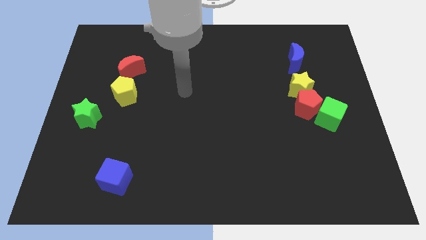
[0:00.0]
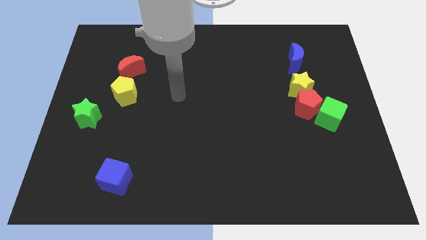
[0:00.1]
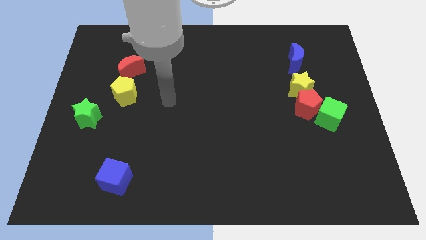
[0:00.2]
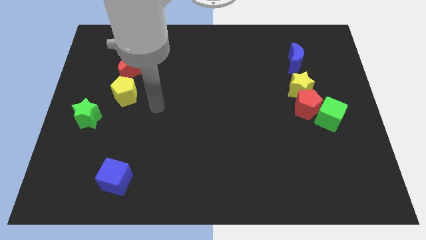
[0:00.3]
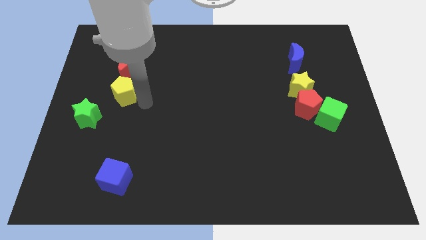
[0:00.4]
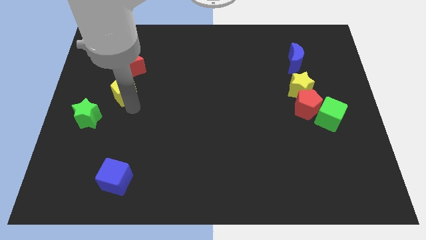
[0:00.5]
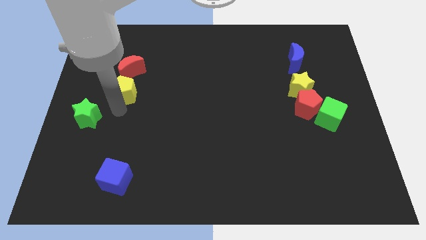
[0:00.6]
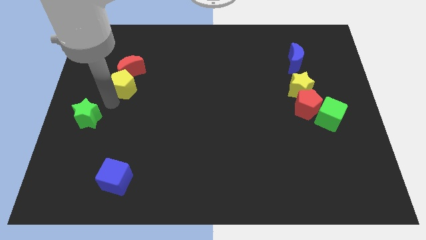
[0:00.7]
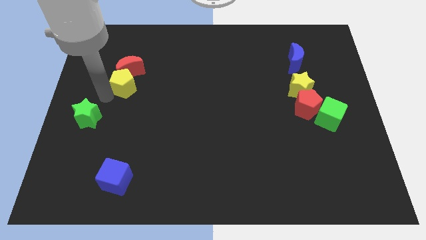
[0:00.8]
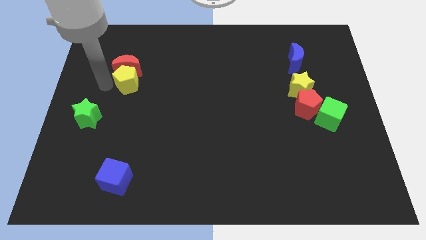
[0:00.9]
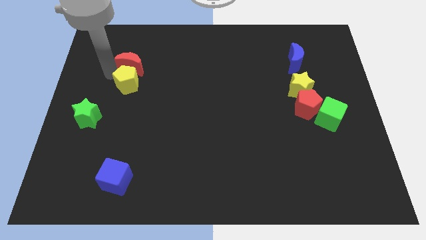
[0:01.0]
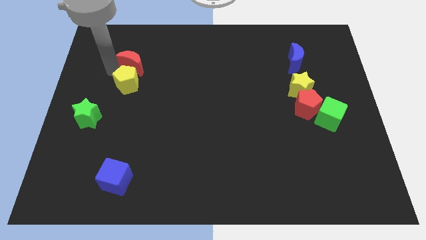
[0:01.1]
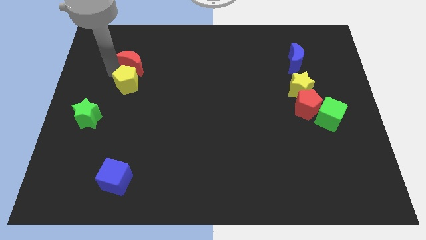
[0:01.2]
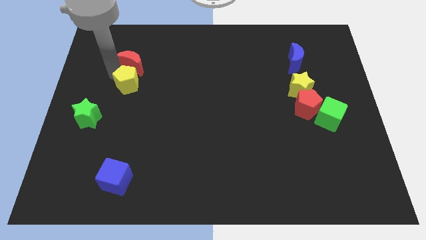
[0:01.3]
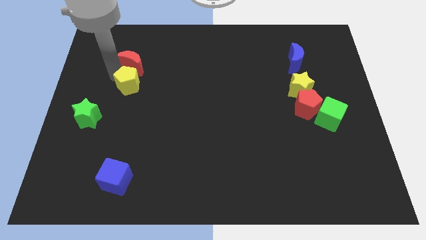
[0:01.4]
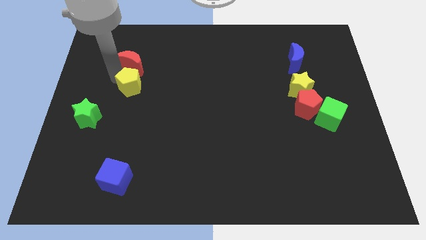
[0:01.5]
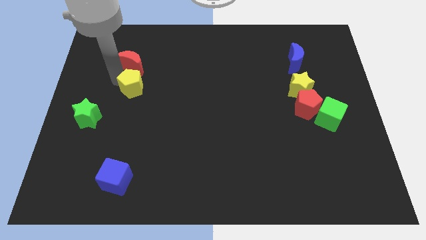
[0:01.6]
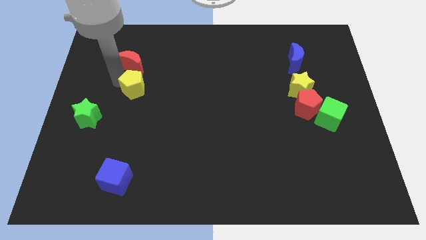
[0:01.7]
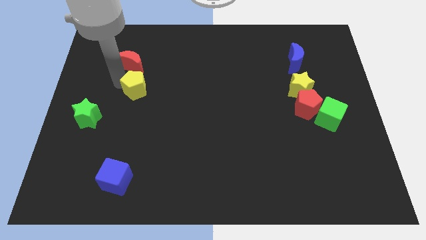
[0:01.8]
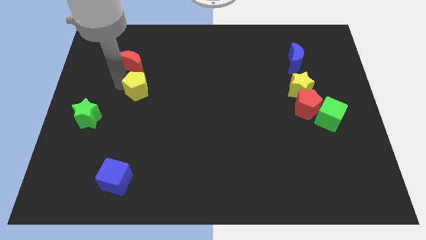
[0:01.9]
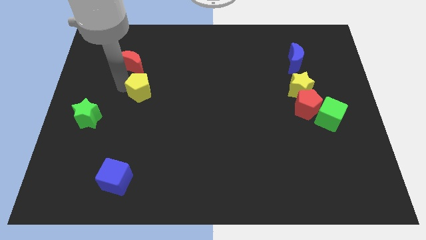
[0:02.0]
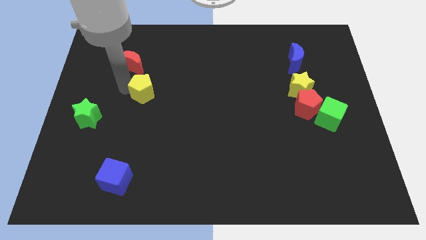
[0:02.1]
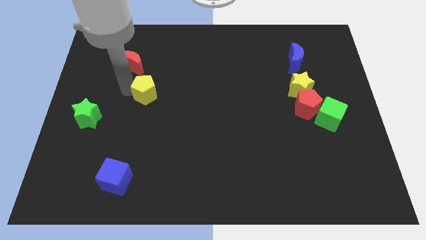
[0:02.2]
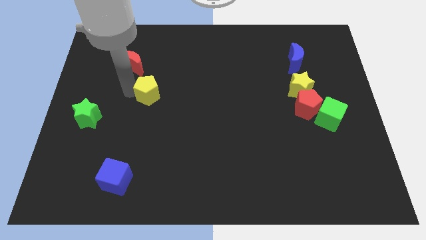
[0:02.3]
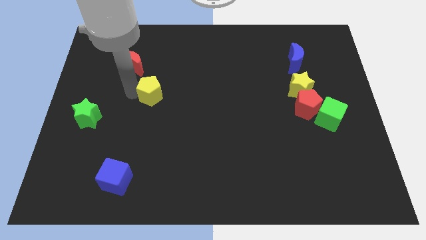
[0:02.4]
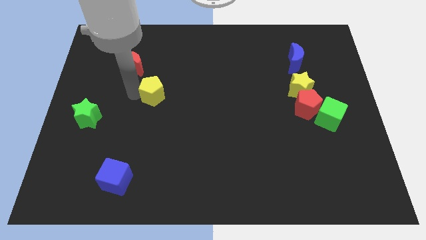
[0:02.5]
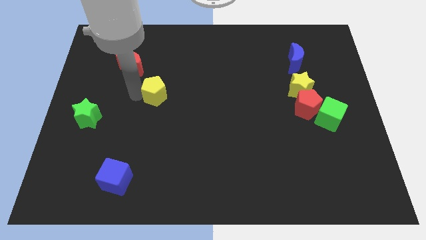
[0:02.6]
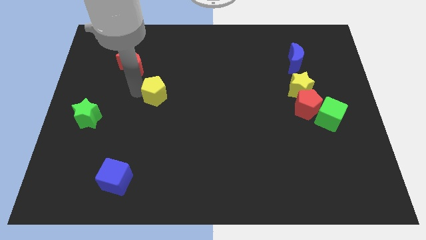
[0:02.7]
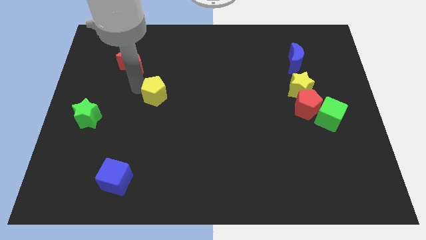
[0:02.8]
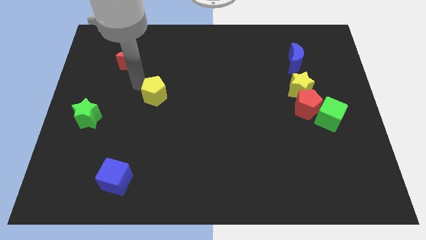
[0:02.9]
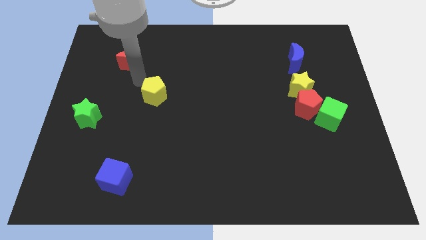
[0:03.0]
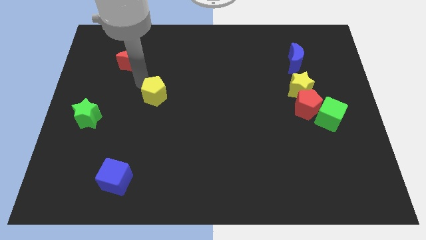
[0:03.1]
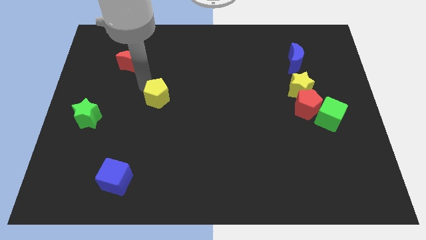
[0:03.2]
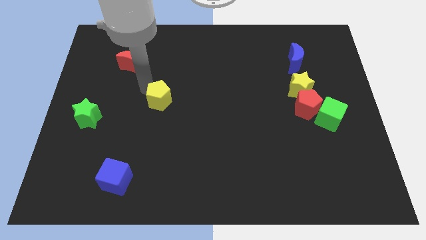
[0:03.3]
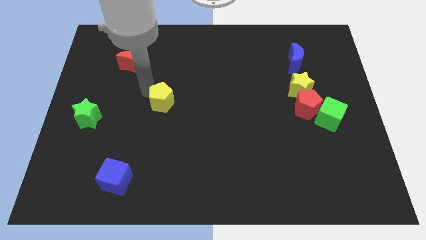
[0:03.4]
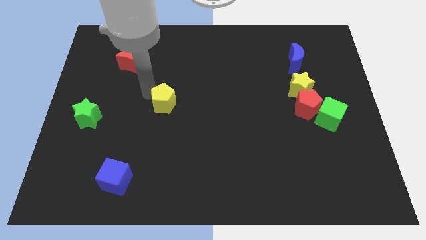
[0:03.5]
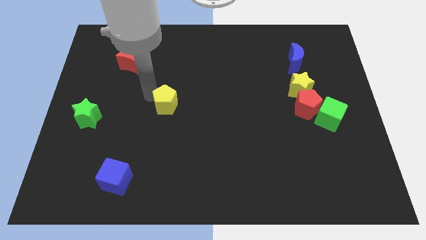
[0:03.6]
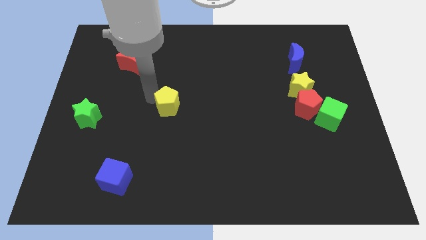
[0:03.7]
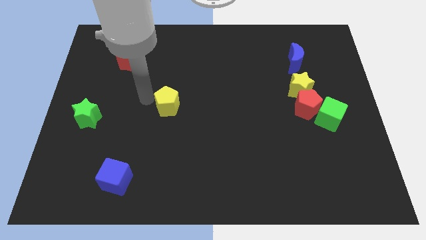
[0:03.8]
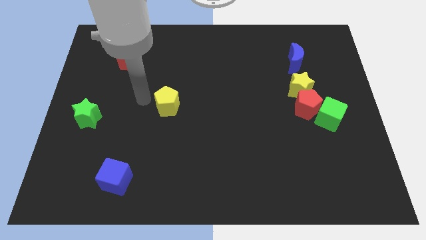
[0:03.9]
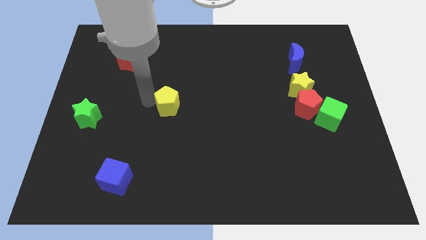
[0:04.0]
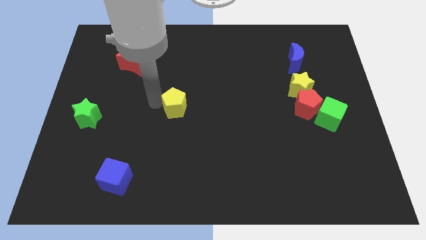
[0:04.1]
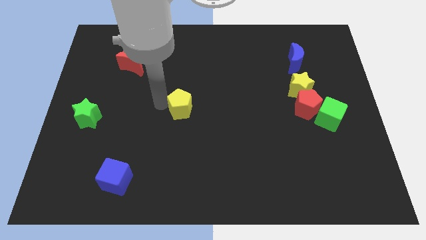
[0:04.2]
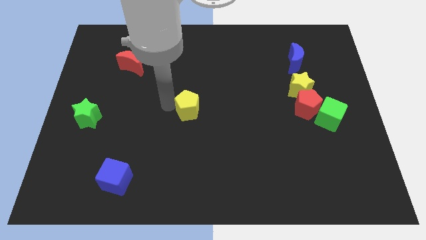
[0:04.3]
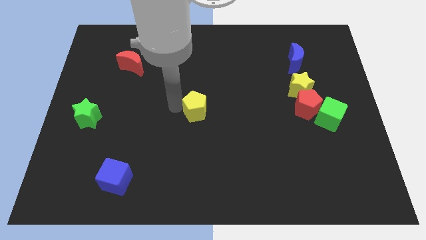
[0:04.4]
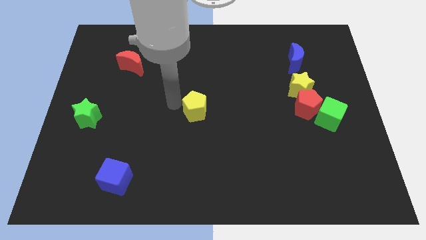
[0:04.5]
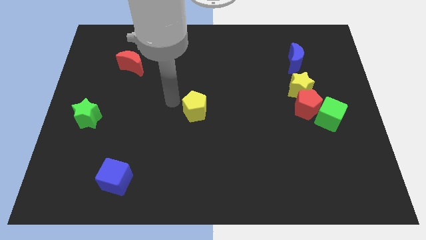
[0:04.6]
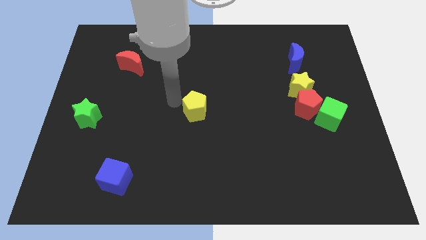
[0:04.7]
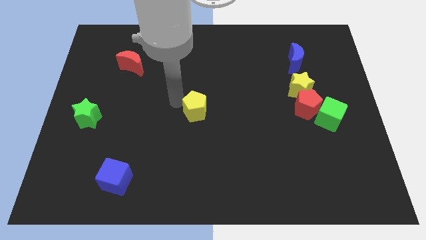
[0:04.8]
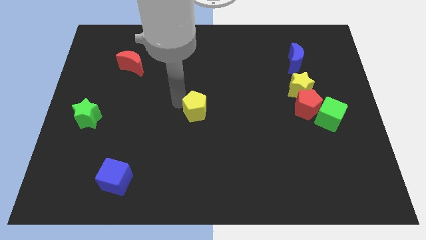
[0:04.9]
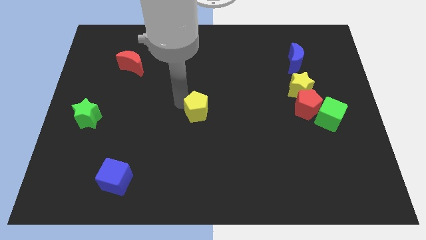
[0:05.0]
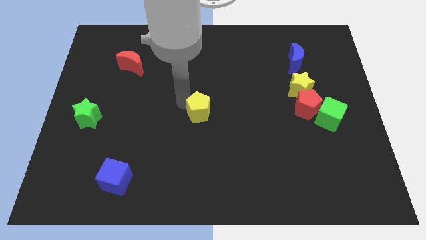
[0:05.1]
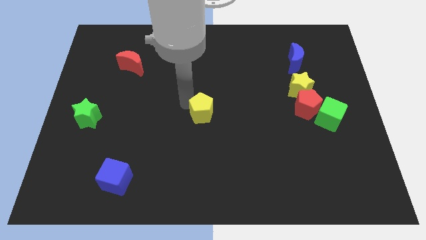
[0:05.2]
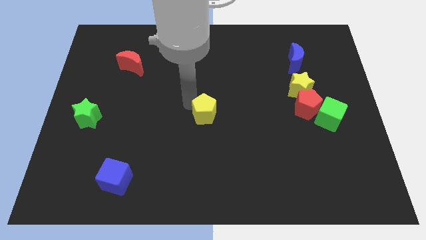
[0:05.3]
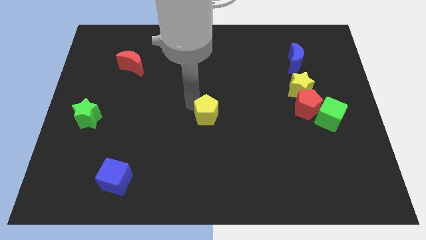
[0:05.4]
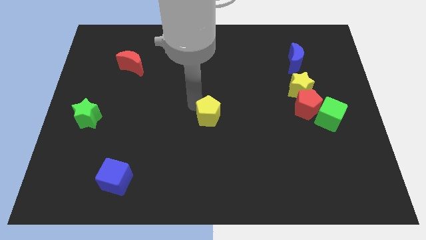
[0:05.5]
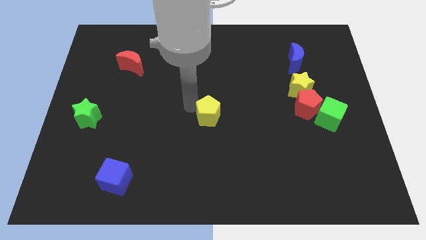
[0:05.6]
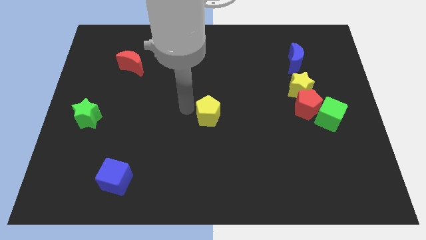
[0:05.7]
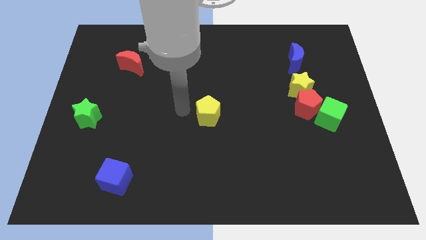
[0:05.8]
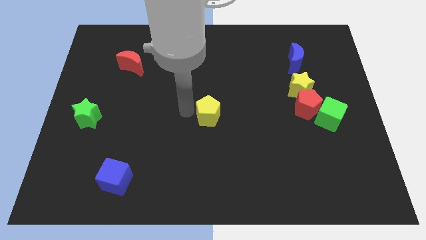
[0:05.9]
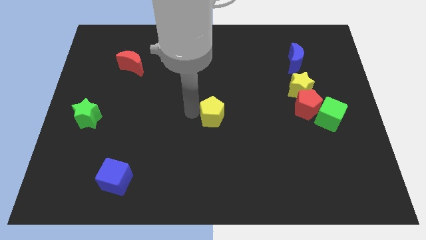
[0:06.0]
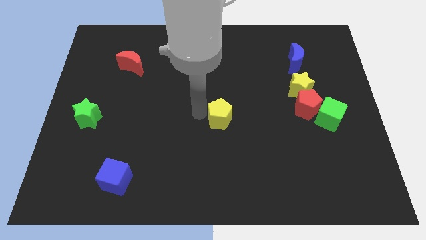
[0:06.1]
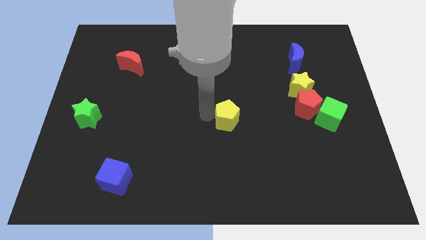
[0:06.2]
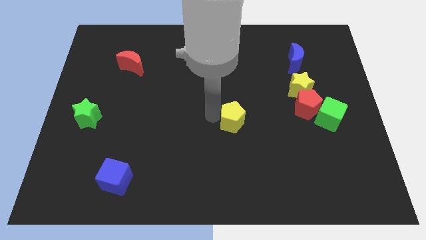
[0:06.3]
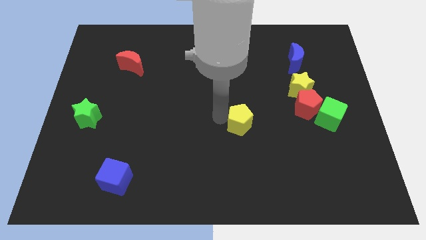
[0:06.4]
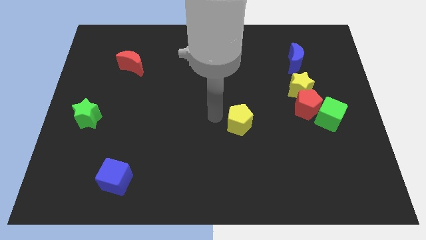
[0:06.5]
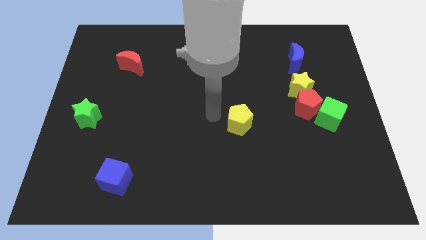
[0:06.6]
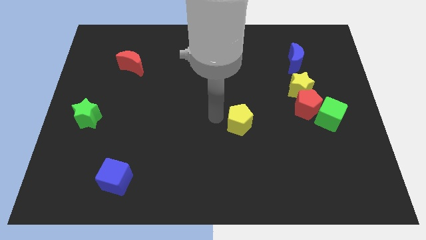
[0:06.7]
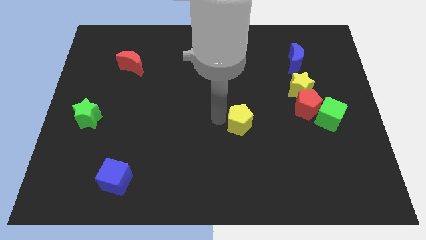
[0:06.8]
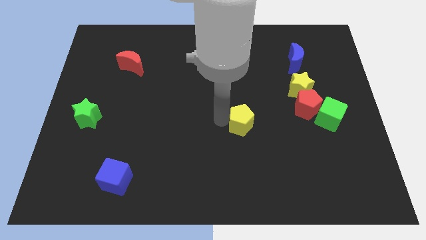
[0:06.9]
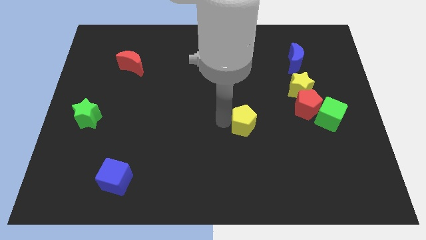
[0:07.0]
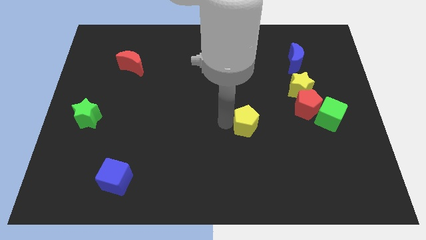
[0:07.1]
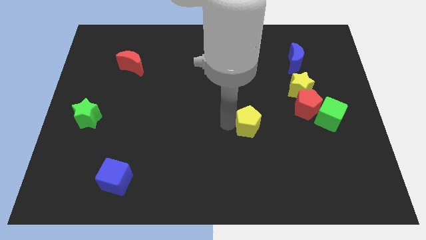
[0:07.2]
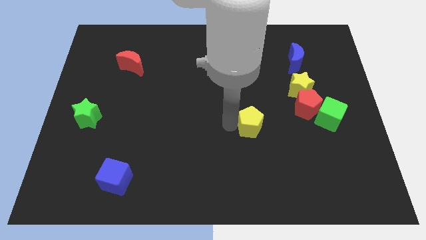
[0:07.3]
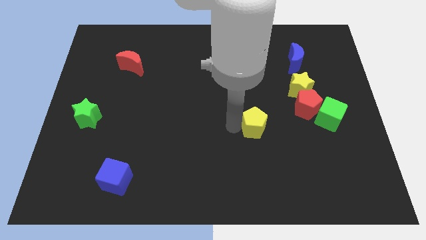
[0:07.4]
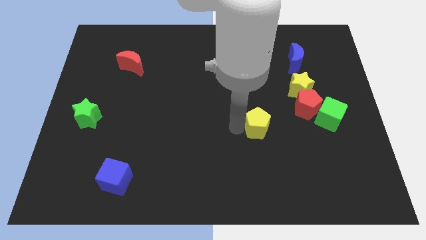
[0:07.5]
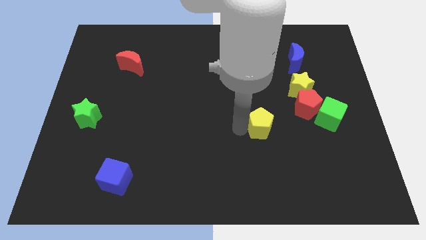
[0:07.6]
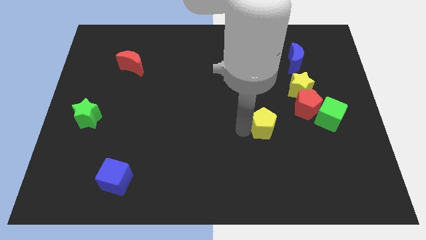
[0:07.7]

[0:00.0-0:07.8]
put the yellow pentagon diagonally down and to the left of the red pentagon
